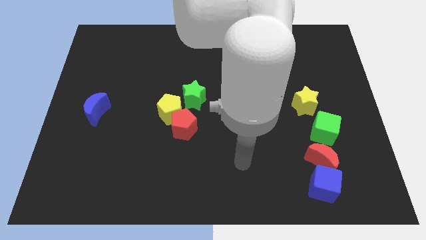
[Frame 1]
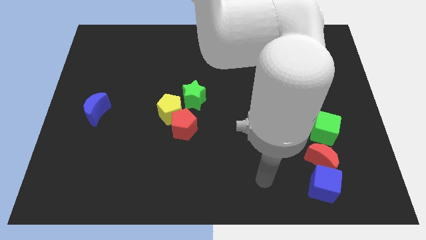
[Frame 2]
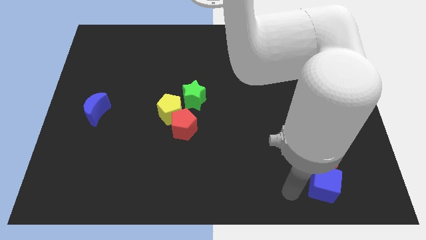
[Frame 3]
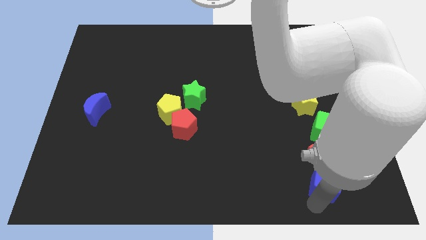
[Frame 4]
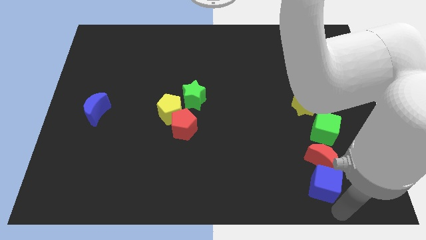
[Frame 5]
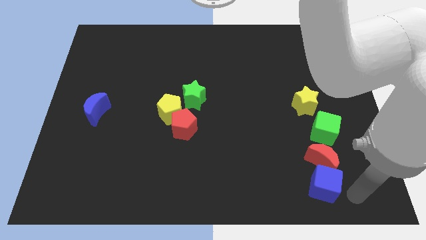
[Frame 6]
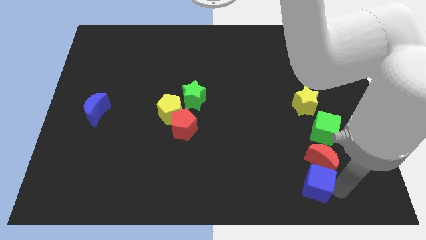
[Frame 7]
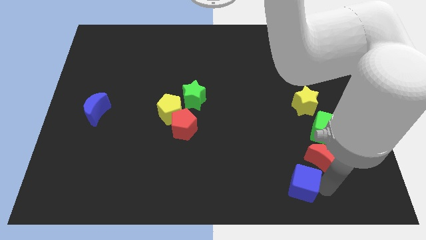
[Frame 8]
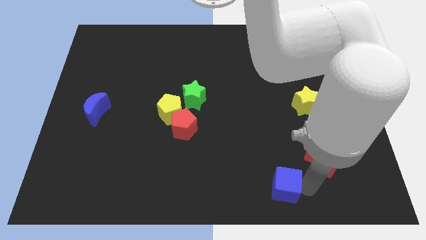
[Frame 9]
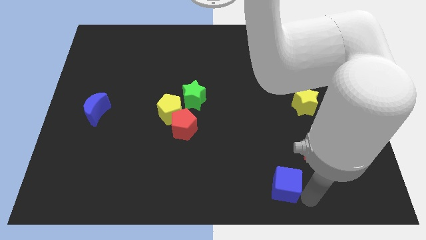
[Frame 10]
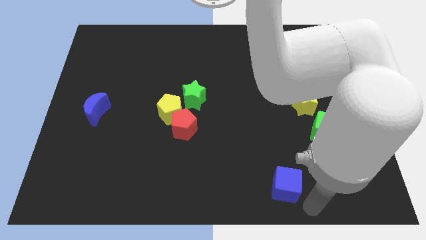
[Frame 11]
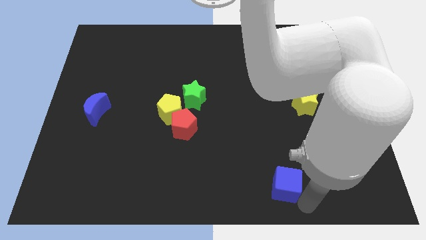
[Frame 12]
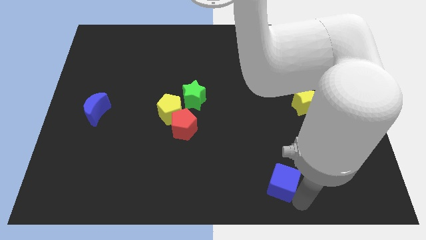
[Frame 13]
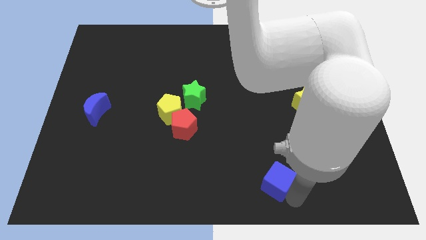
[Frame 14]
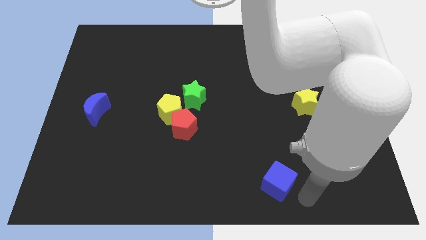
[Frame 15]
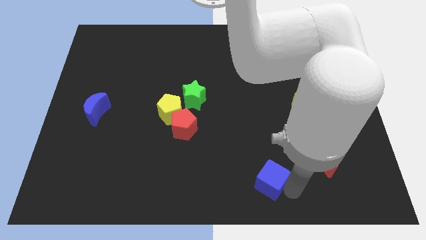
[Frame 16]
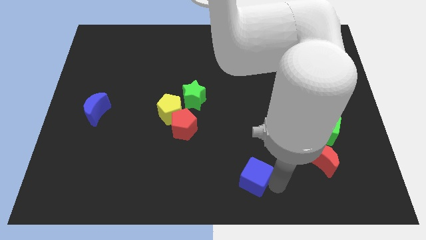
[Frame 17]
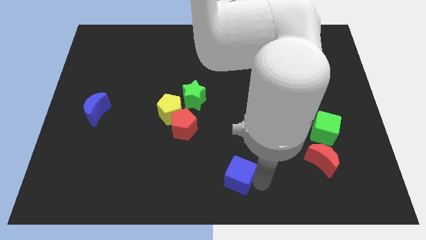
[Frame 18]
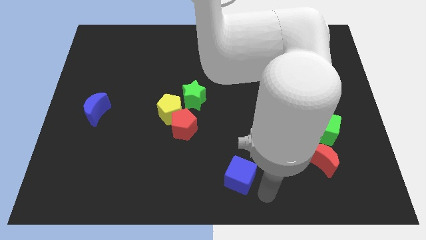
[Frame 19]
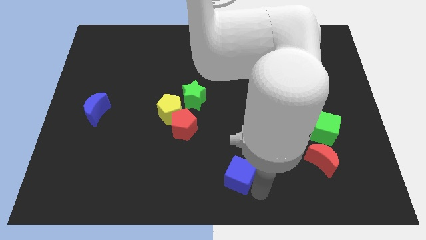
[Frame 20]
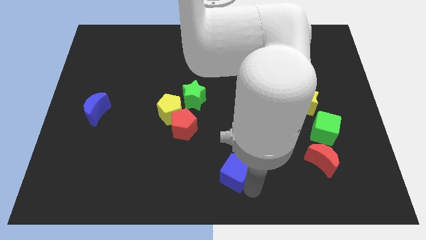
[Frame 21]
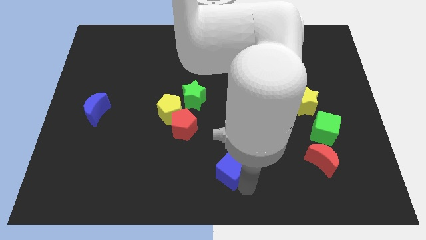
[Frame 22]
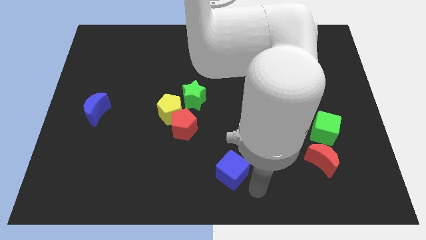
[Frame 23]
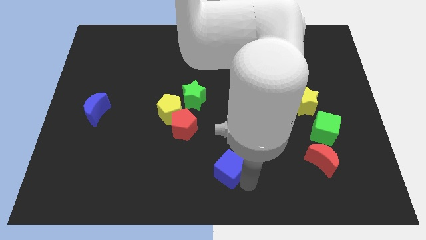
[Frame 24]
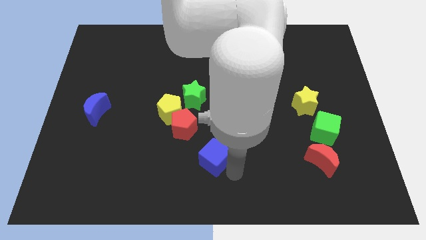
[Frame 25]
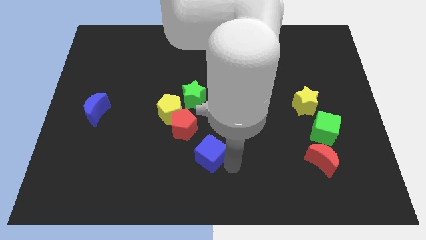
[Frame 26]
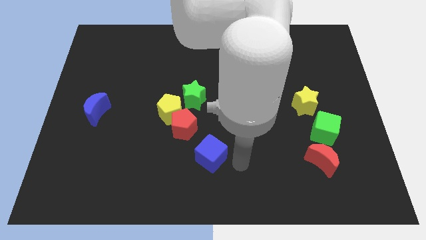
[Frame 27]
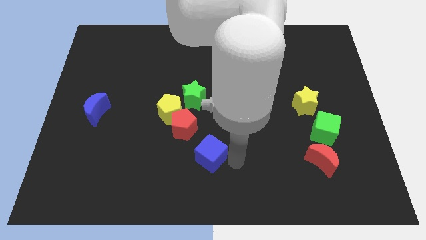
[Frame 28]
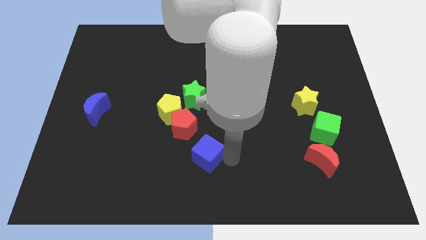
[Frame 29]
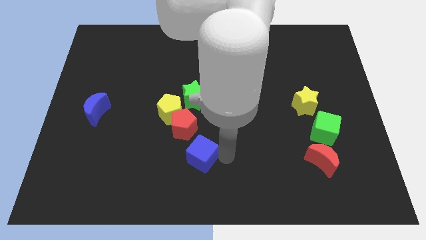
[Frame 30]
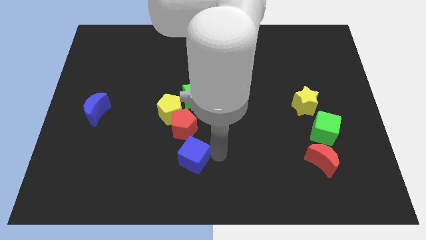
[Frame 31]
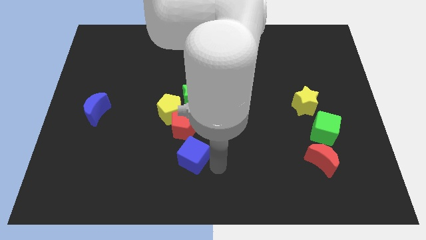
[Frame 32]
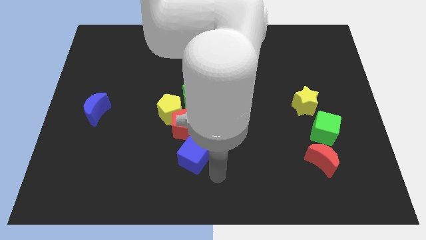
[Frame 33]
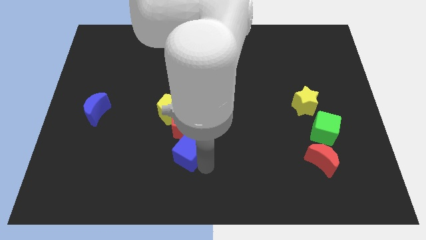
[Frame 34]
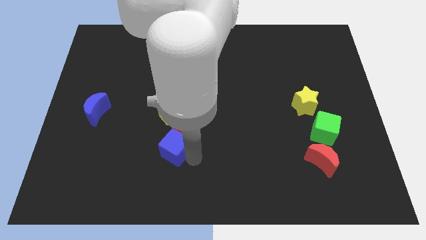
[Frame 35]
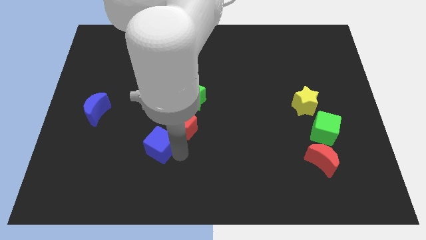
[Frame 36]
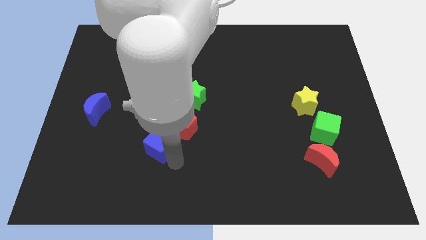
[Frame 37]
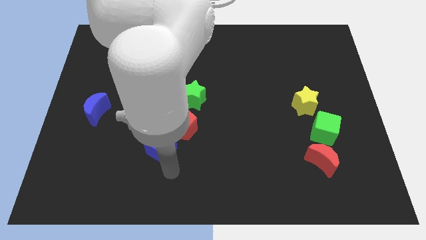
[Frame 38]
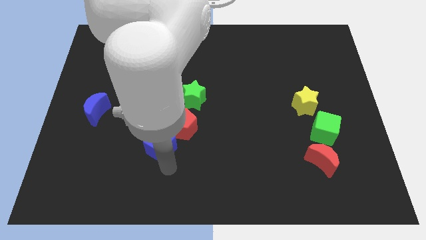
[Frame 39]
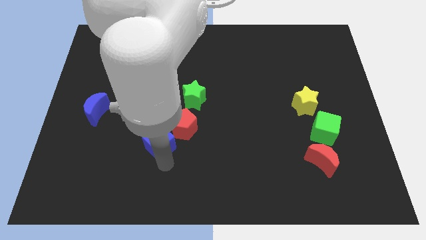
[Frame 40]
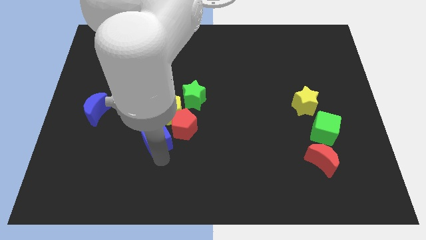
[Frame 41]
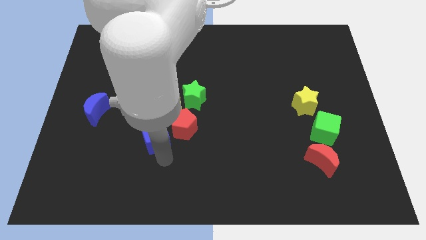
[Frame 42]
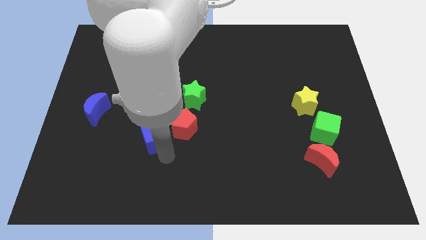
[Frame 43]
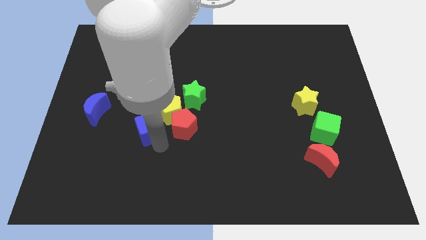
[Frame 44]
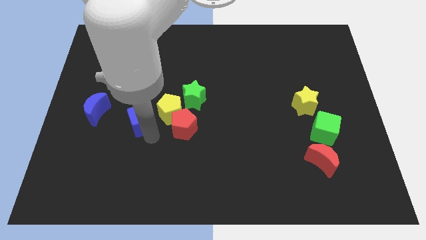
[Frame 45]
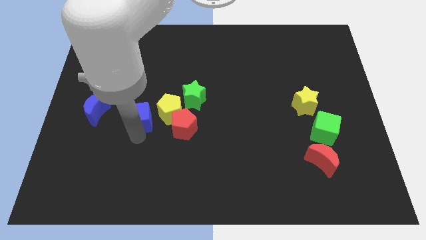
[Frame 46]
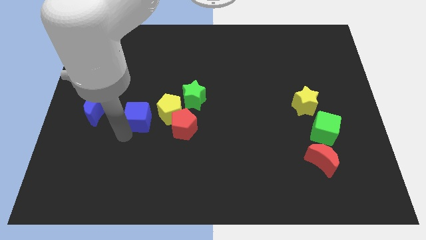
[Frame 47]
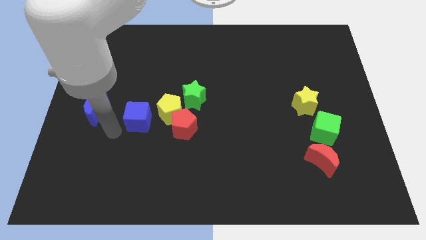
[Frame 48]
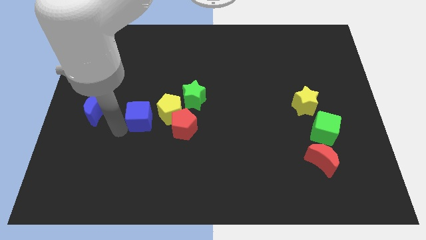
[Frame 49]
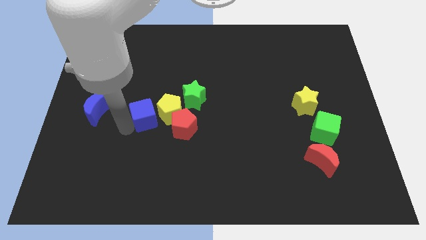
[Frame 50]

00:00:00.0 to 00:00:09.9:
slide the blue cube diagonally up and to the left of the red pentagon

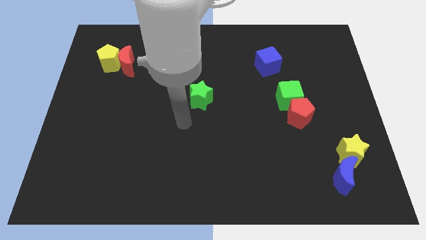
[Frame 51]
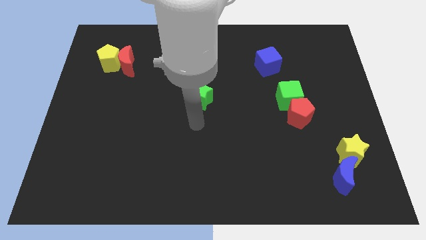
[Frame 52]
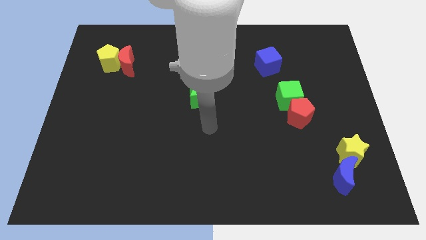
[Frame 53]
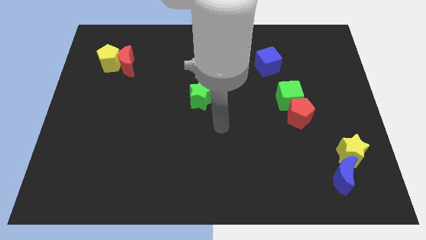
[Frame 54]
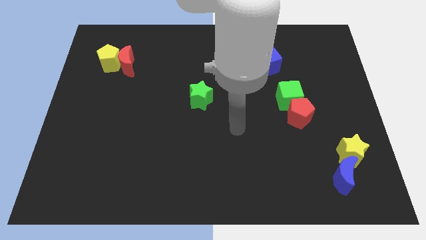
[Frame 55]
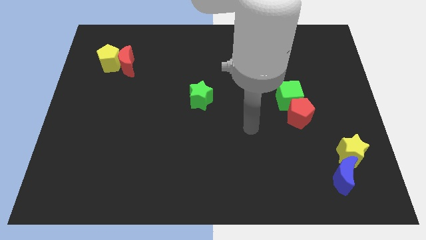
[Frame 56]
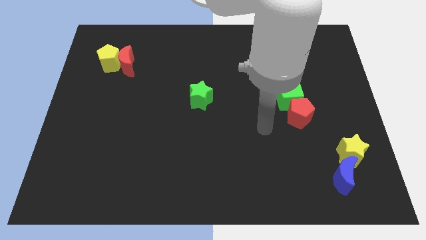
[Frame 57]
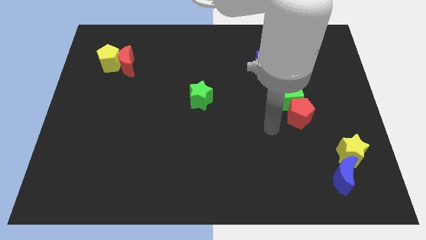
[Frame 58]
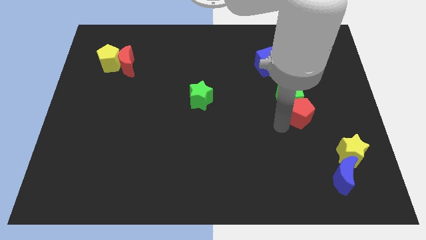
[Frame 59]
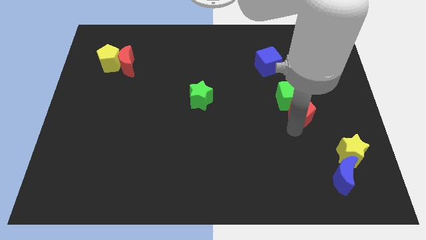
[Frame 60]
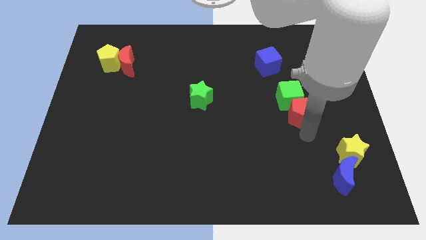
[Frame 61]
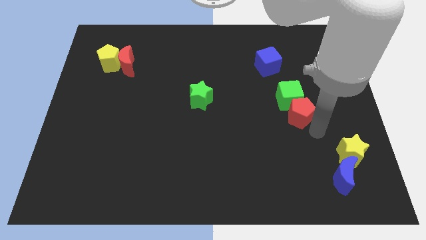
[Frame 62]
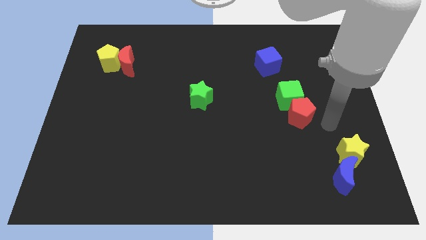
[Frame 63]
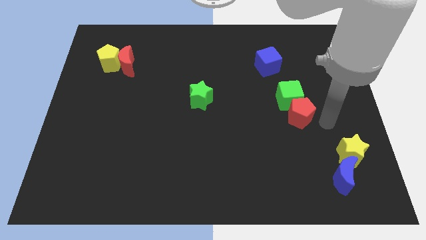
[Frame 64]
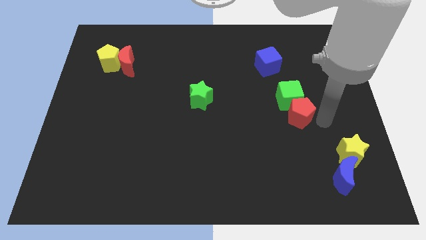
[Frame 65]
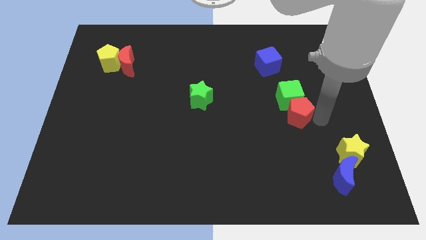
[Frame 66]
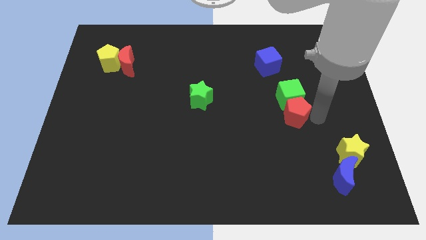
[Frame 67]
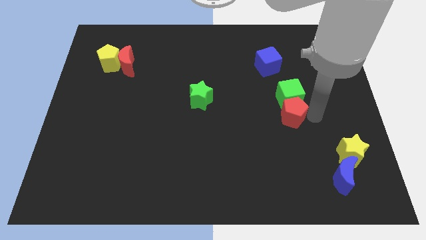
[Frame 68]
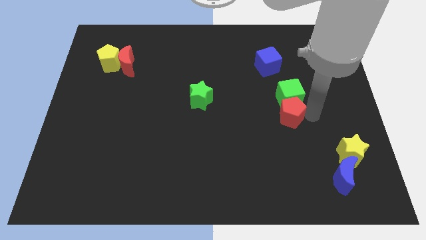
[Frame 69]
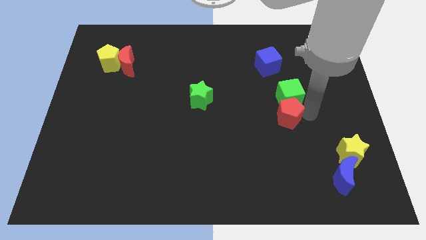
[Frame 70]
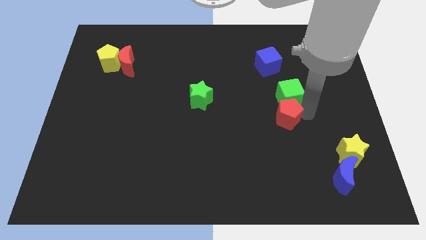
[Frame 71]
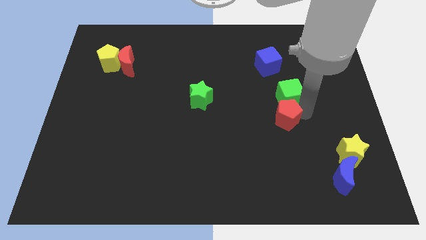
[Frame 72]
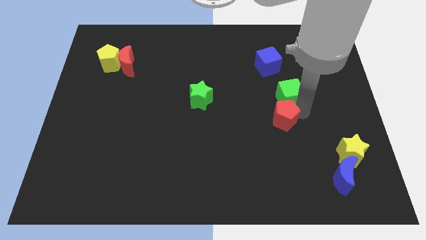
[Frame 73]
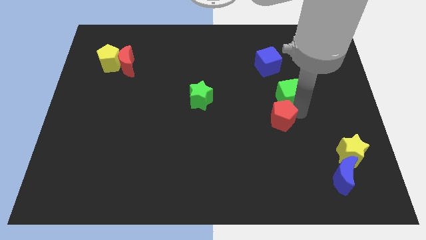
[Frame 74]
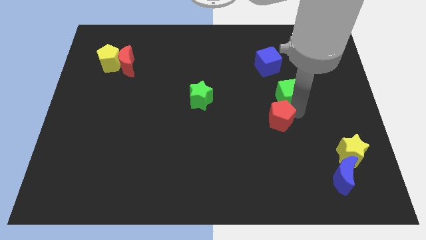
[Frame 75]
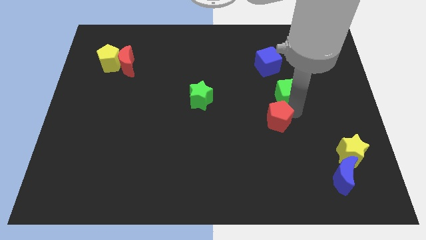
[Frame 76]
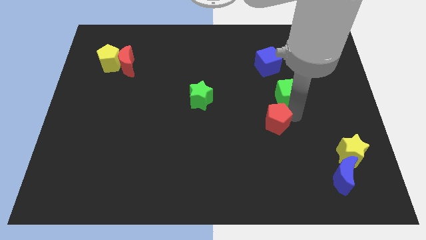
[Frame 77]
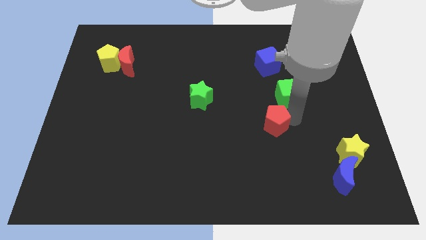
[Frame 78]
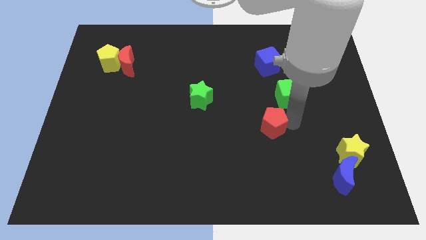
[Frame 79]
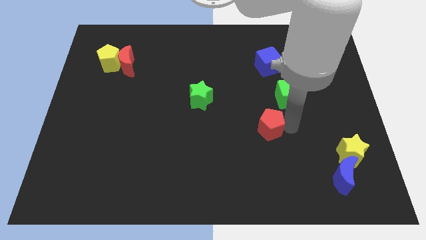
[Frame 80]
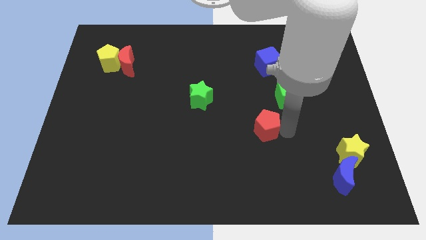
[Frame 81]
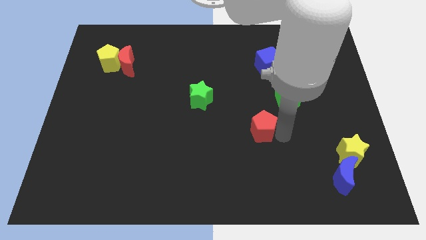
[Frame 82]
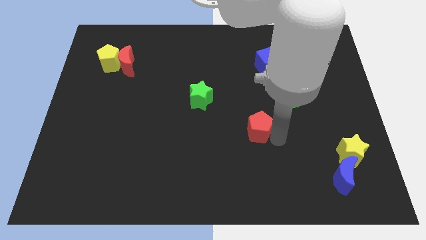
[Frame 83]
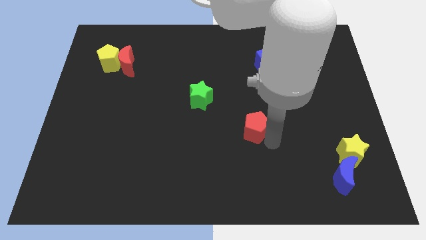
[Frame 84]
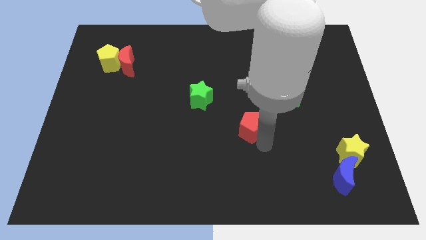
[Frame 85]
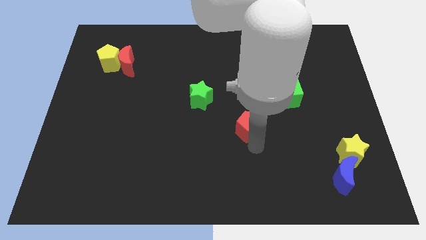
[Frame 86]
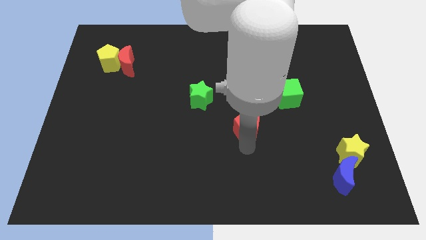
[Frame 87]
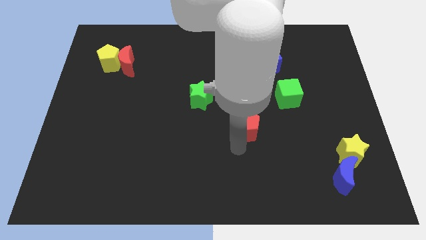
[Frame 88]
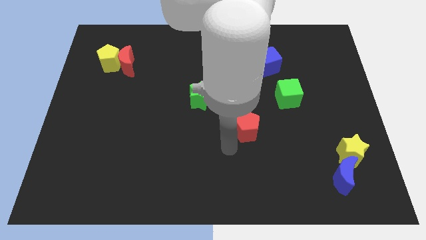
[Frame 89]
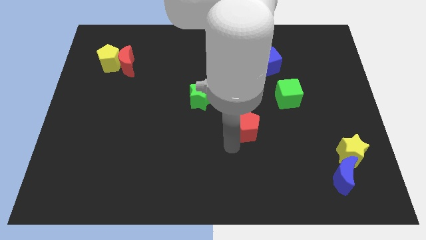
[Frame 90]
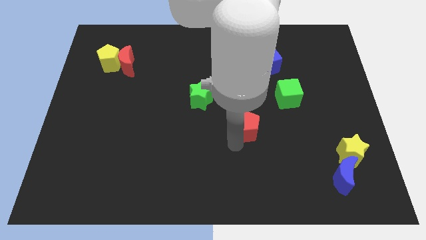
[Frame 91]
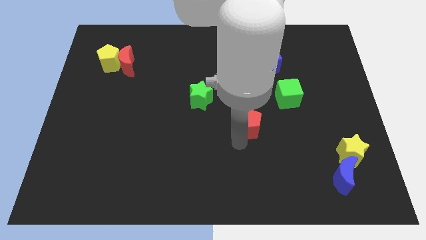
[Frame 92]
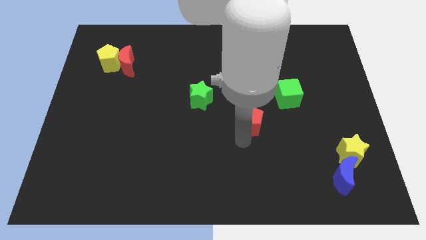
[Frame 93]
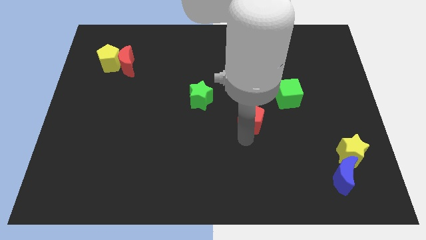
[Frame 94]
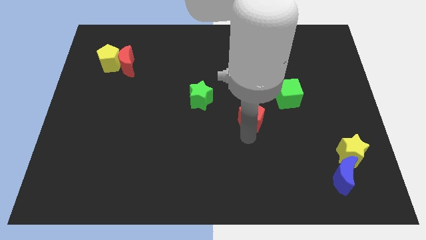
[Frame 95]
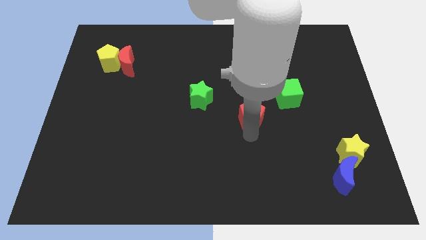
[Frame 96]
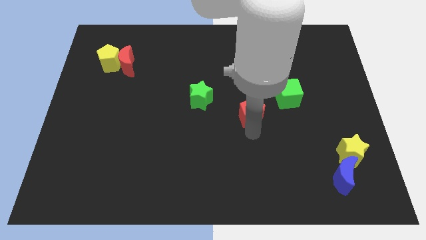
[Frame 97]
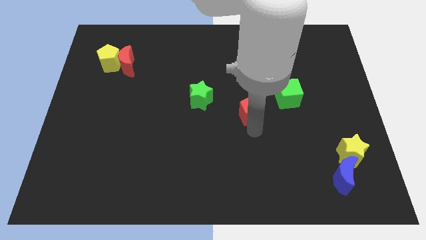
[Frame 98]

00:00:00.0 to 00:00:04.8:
move the red pentagon to the right of the green star
